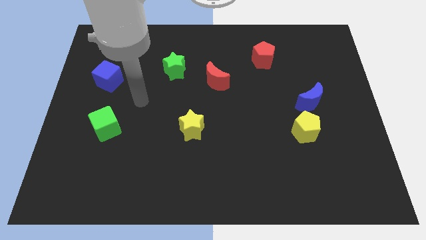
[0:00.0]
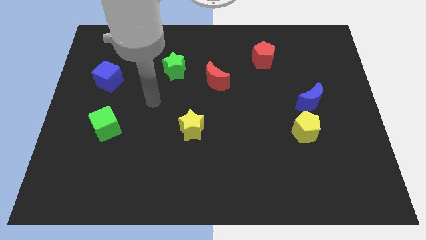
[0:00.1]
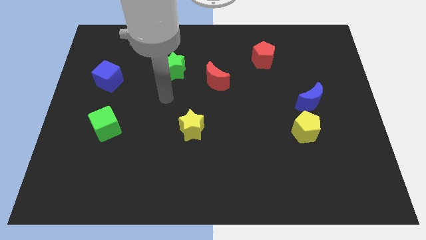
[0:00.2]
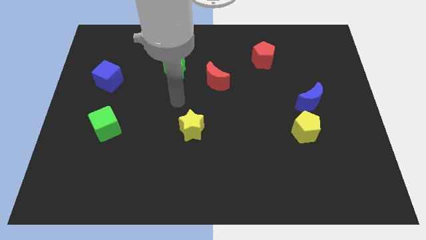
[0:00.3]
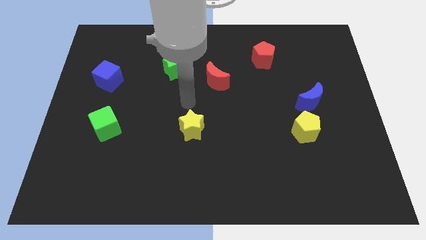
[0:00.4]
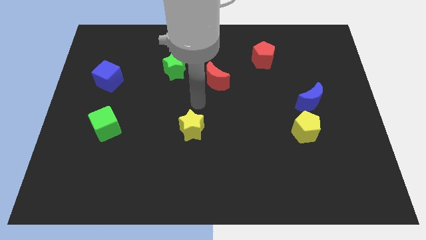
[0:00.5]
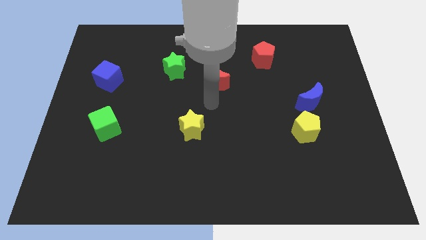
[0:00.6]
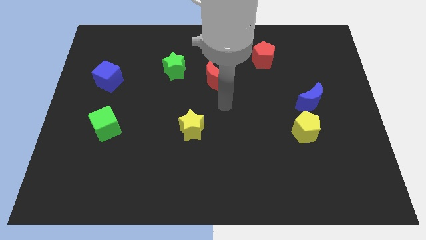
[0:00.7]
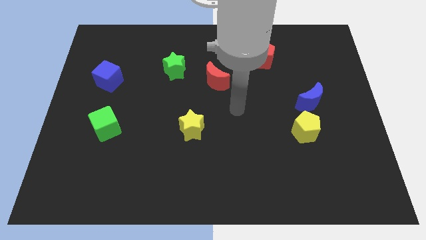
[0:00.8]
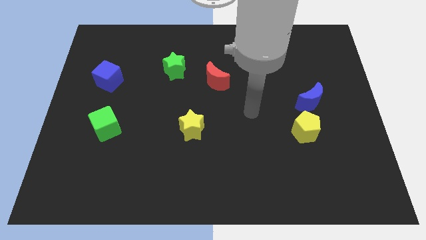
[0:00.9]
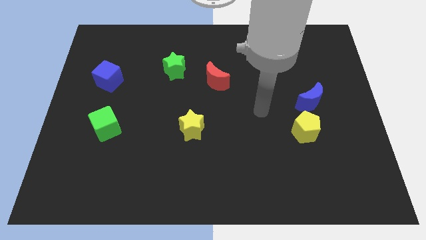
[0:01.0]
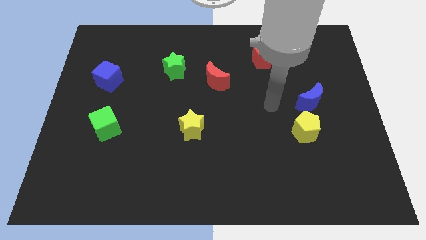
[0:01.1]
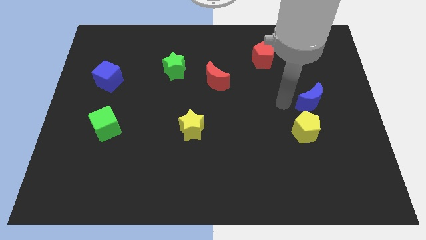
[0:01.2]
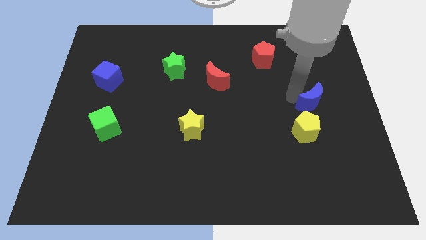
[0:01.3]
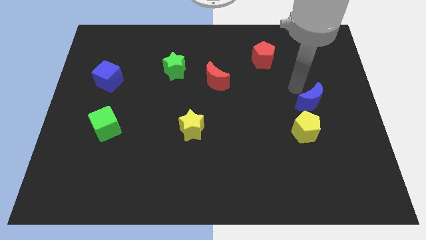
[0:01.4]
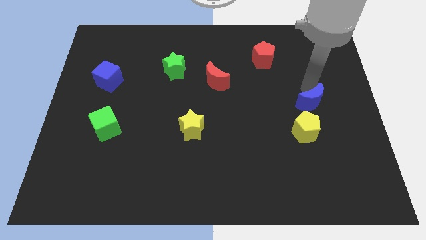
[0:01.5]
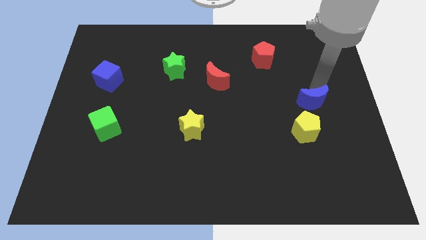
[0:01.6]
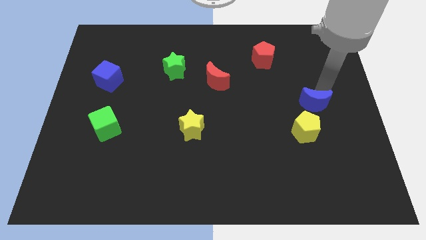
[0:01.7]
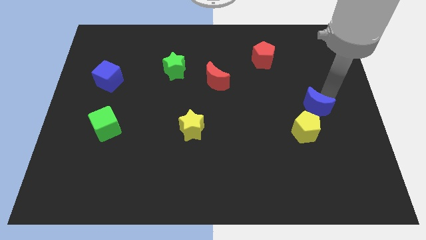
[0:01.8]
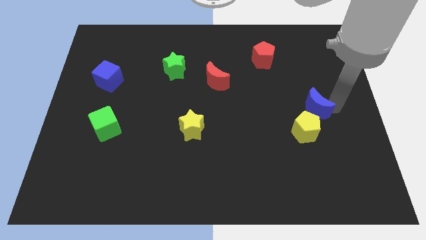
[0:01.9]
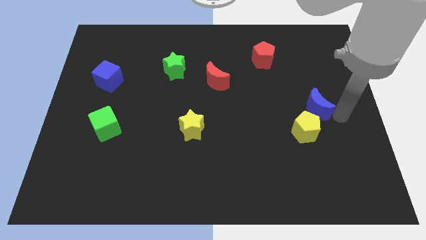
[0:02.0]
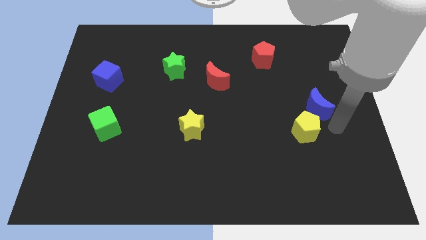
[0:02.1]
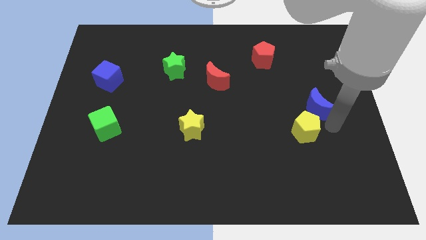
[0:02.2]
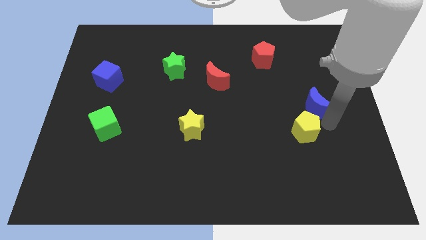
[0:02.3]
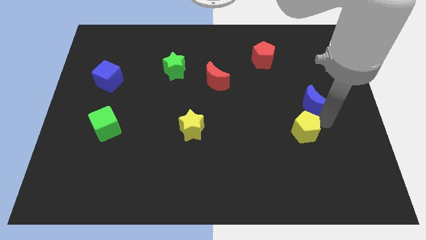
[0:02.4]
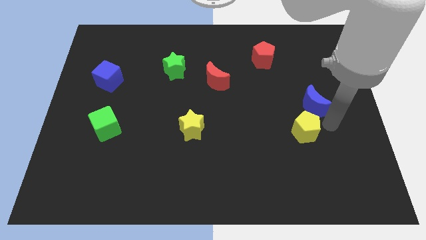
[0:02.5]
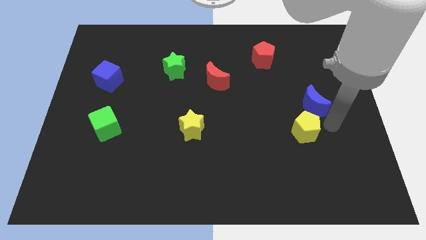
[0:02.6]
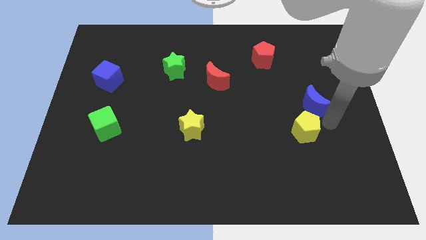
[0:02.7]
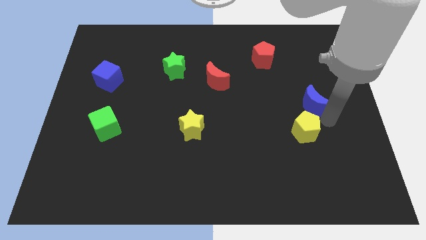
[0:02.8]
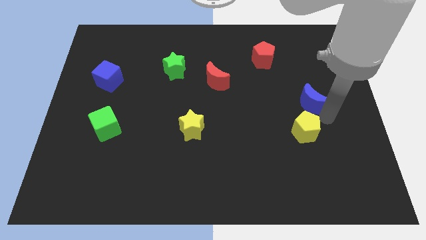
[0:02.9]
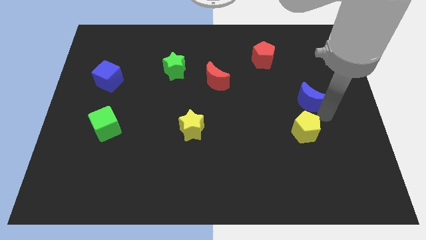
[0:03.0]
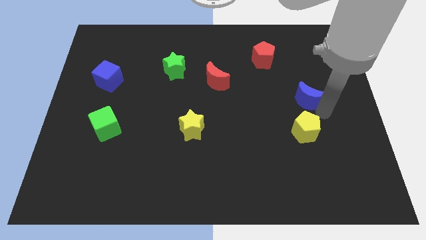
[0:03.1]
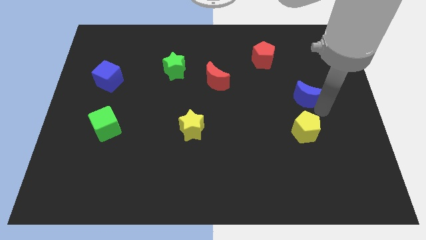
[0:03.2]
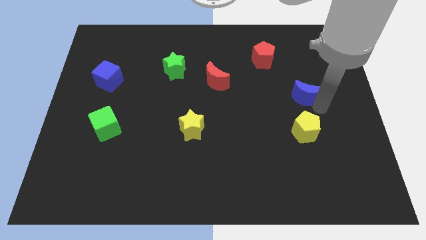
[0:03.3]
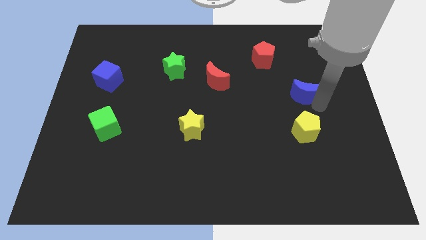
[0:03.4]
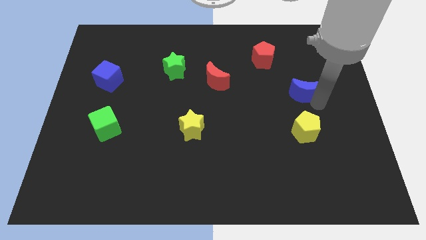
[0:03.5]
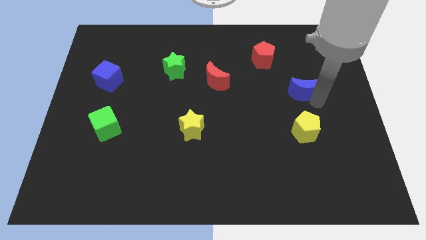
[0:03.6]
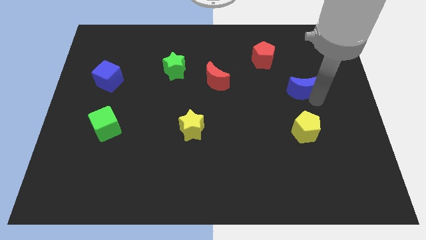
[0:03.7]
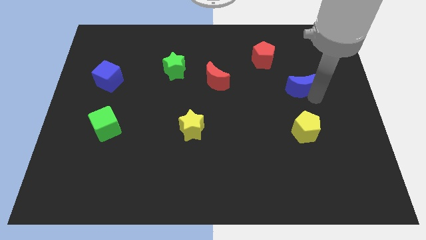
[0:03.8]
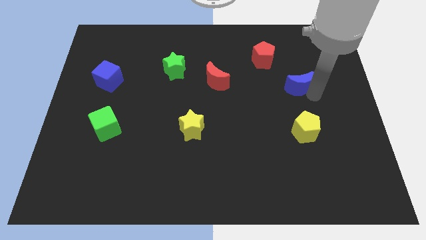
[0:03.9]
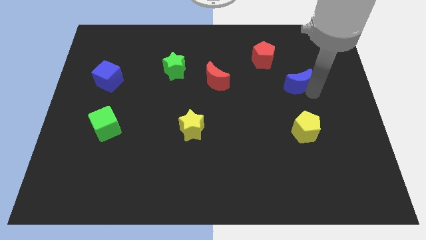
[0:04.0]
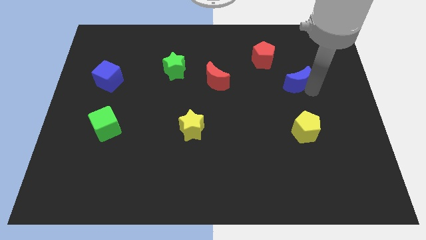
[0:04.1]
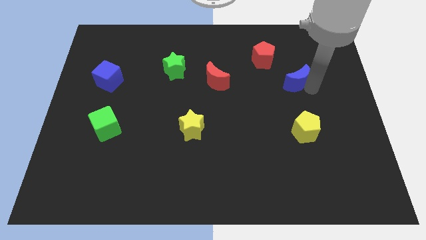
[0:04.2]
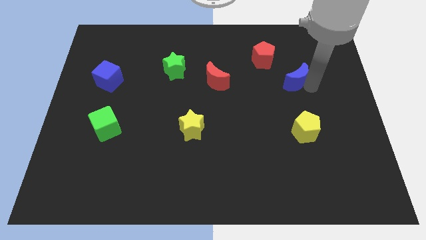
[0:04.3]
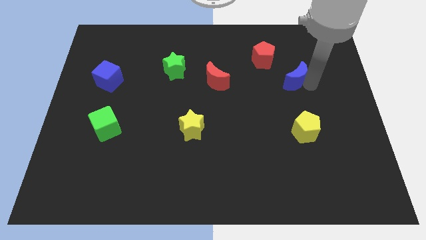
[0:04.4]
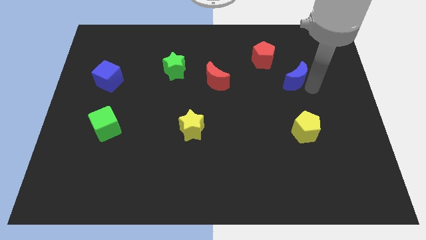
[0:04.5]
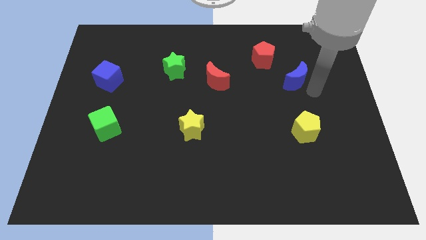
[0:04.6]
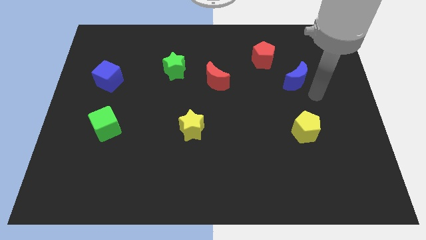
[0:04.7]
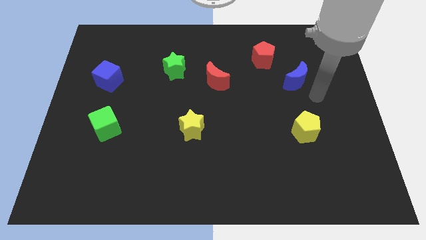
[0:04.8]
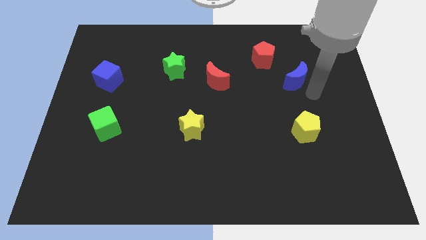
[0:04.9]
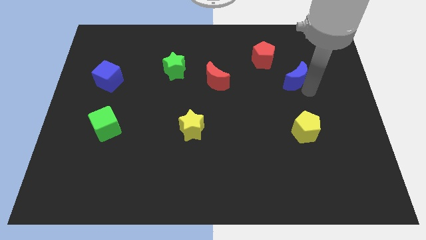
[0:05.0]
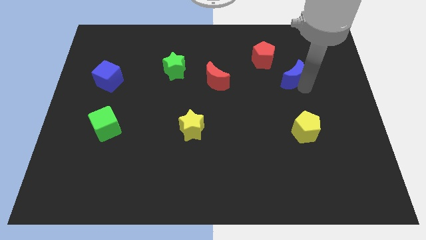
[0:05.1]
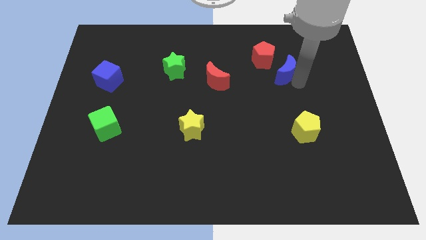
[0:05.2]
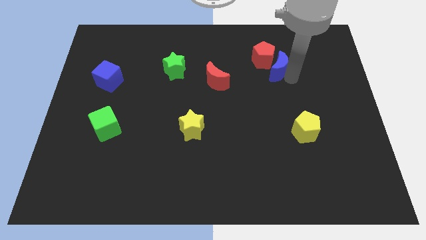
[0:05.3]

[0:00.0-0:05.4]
slide the blue moon next to the red pentagon

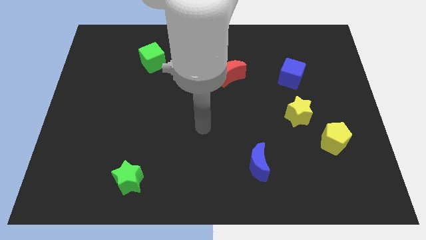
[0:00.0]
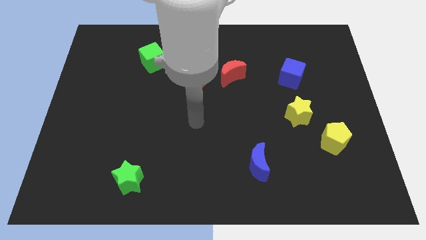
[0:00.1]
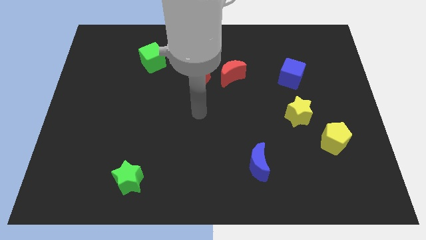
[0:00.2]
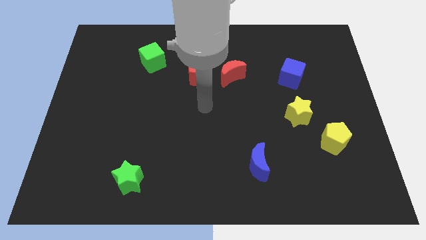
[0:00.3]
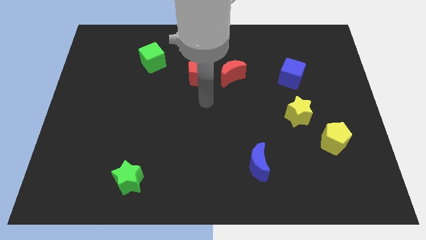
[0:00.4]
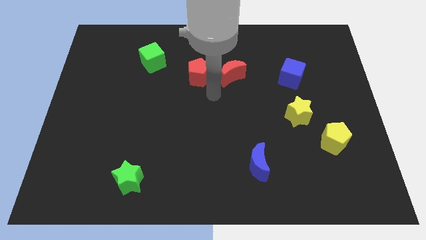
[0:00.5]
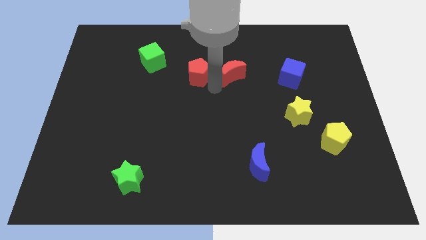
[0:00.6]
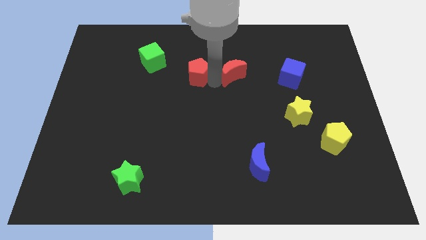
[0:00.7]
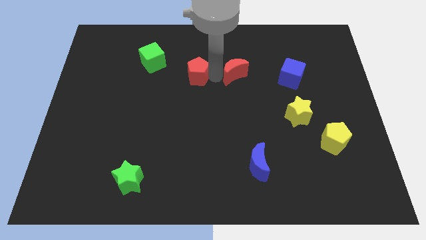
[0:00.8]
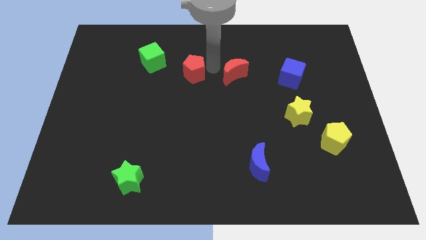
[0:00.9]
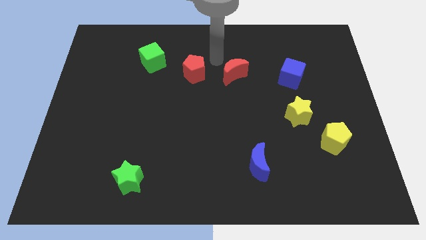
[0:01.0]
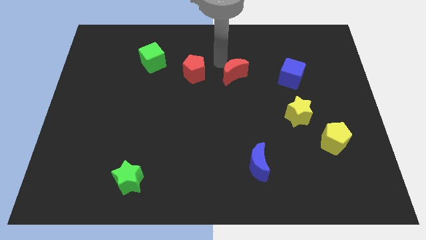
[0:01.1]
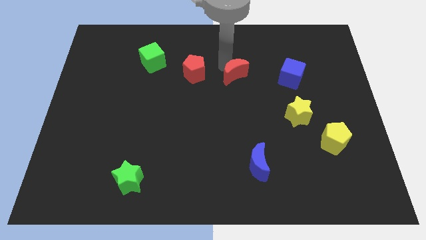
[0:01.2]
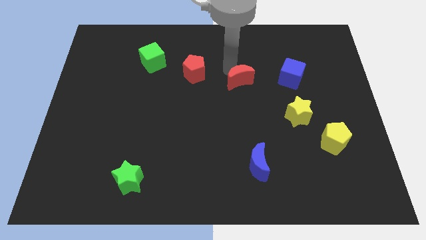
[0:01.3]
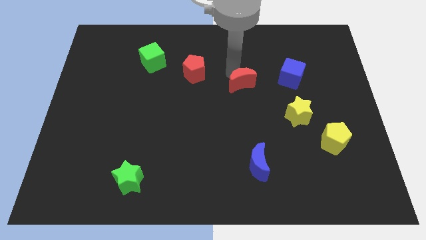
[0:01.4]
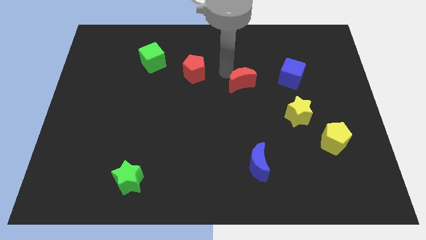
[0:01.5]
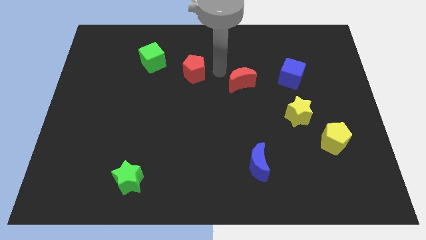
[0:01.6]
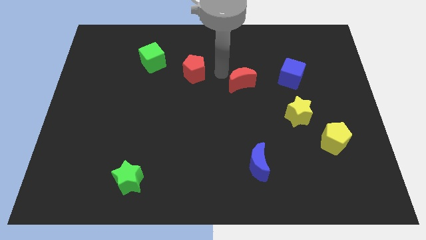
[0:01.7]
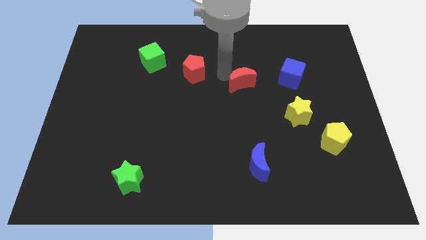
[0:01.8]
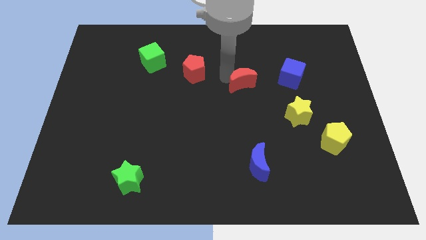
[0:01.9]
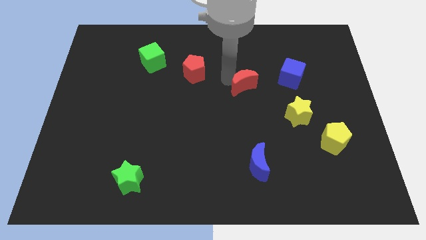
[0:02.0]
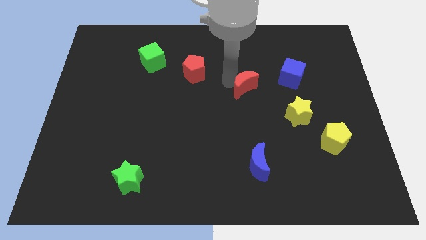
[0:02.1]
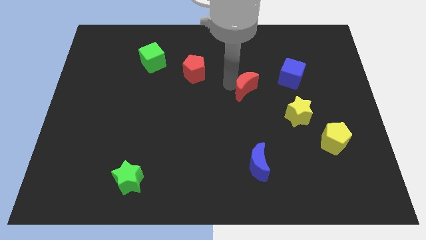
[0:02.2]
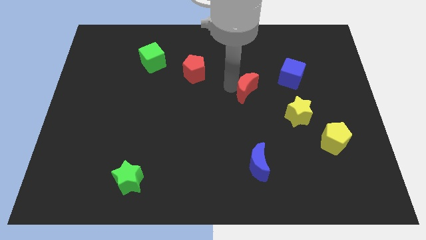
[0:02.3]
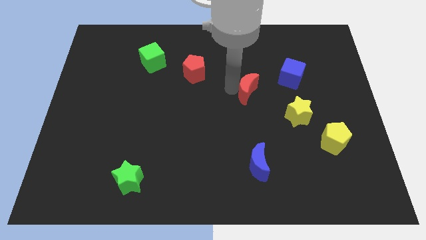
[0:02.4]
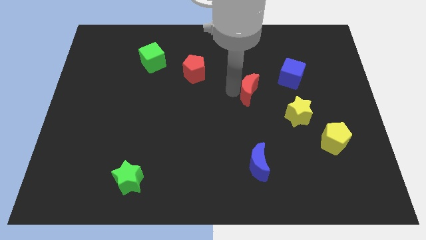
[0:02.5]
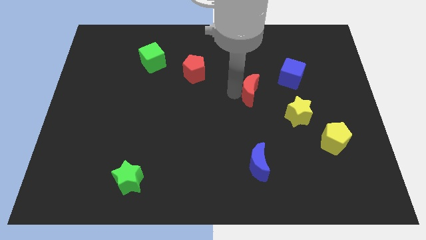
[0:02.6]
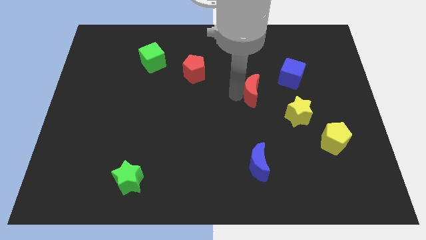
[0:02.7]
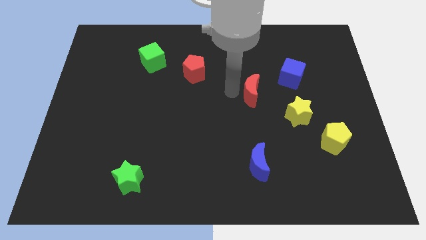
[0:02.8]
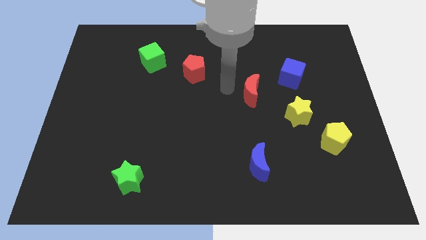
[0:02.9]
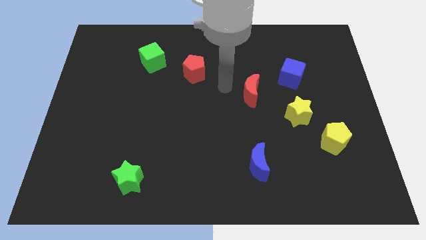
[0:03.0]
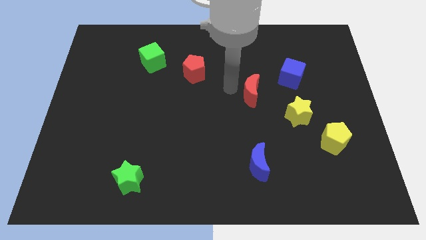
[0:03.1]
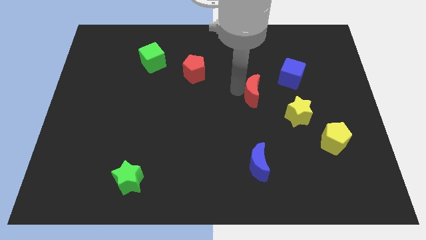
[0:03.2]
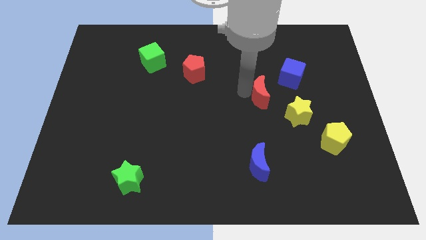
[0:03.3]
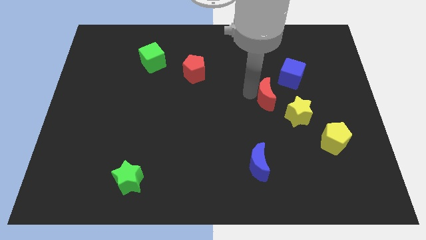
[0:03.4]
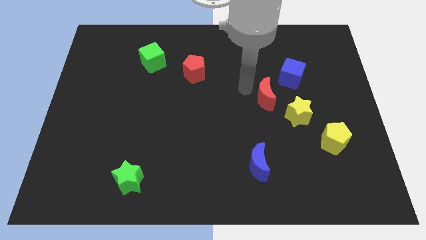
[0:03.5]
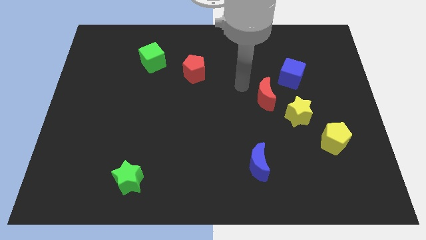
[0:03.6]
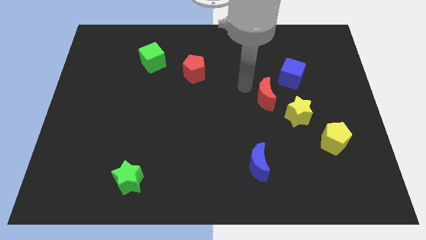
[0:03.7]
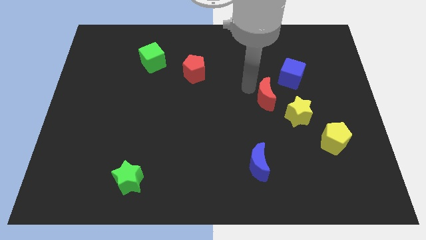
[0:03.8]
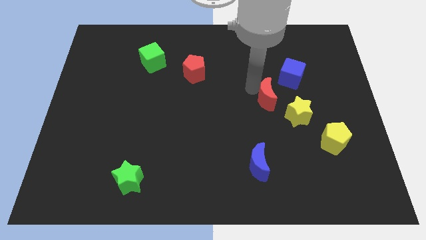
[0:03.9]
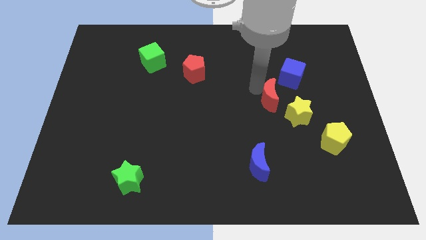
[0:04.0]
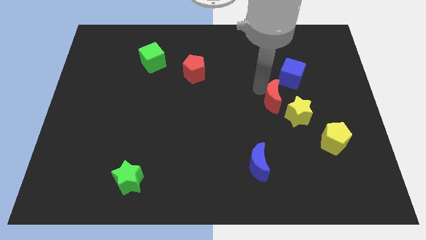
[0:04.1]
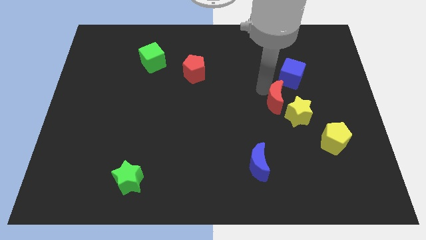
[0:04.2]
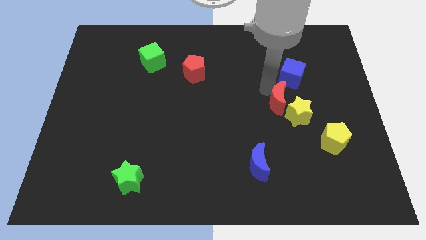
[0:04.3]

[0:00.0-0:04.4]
push the red moon towards the yellow star
